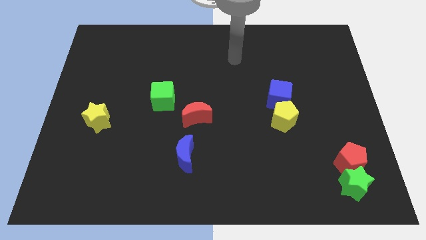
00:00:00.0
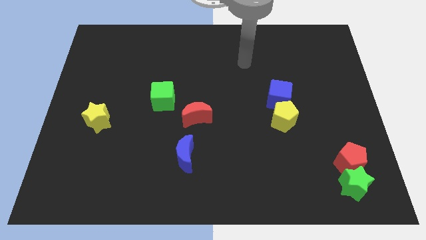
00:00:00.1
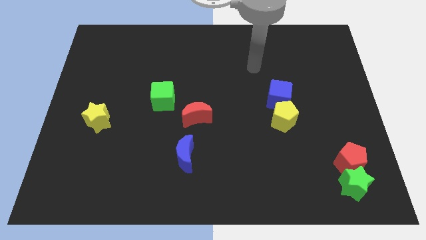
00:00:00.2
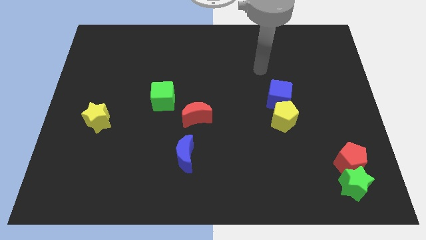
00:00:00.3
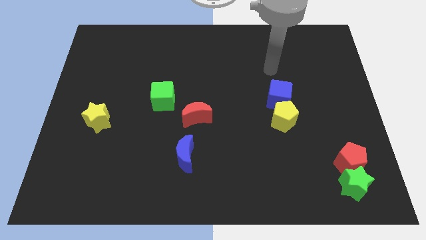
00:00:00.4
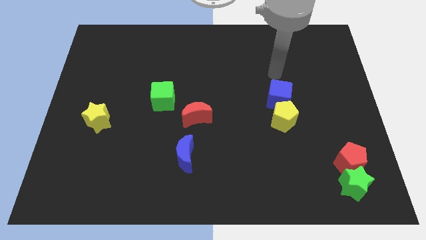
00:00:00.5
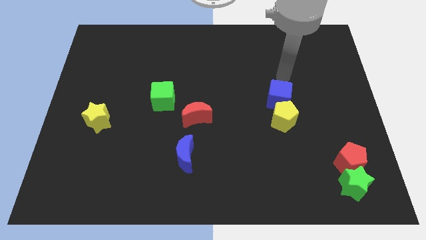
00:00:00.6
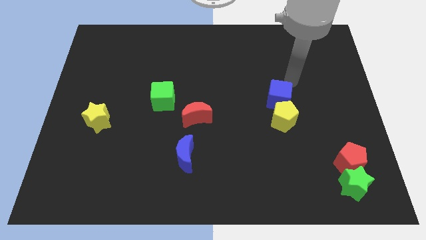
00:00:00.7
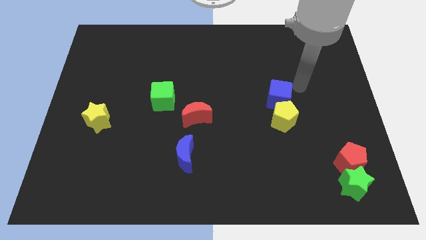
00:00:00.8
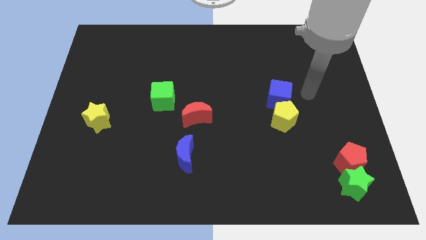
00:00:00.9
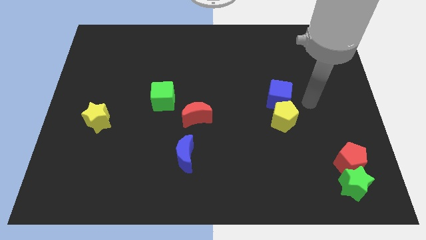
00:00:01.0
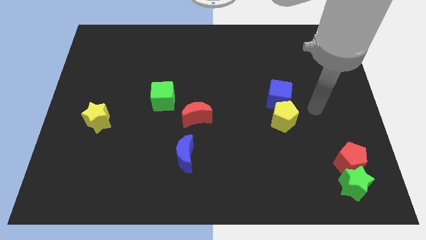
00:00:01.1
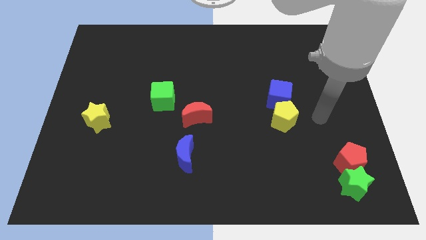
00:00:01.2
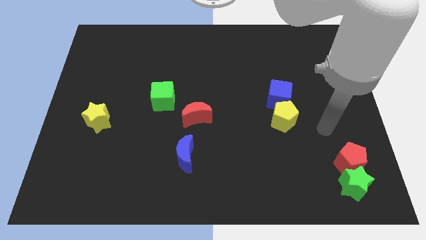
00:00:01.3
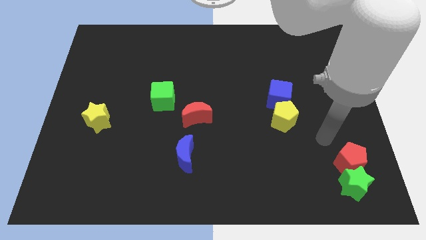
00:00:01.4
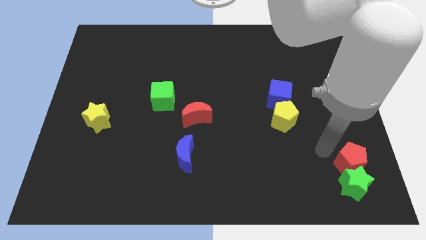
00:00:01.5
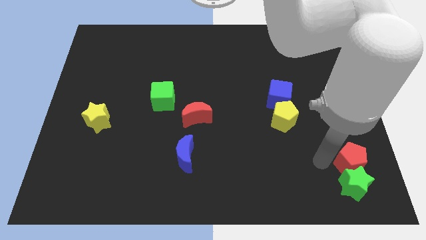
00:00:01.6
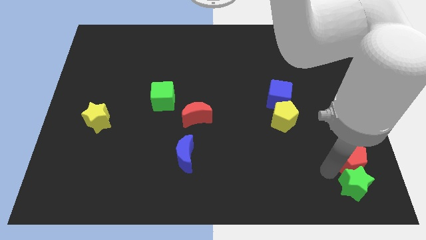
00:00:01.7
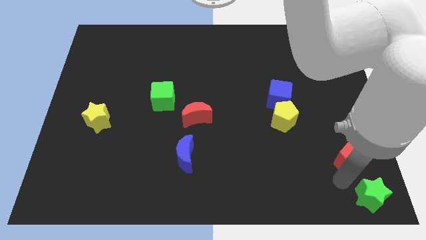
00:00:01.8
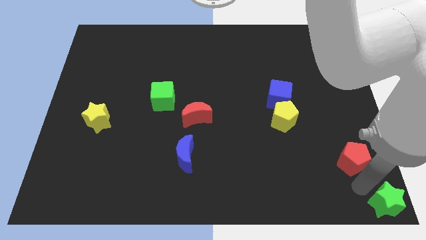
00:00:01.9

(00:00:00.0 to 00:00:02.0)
move the red pentagon away from the green star

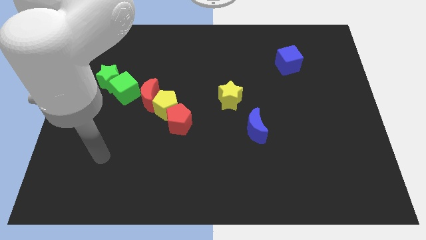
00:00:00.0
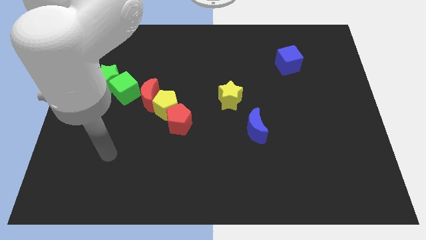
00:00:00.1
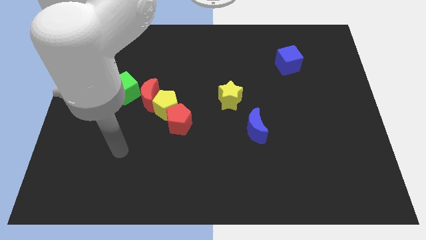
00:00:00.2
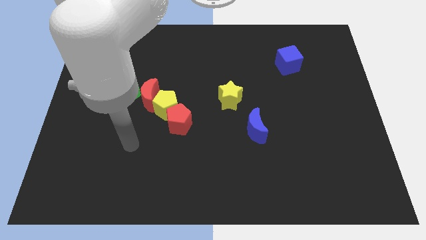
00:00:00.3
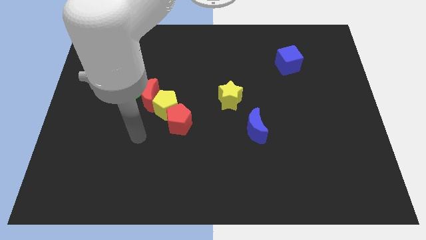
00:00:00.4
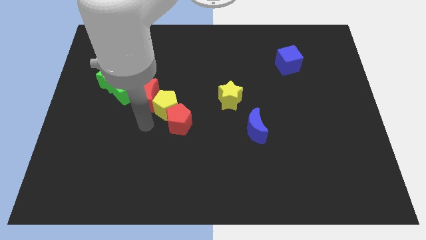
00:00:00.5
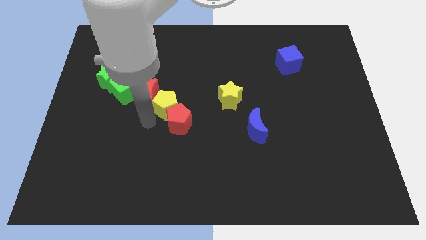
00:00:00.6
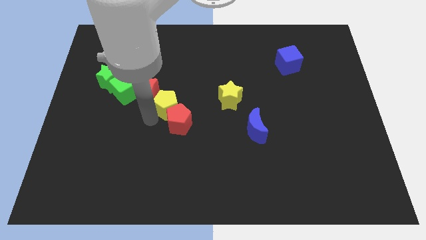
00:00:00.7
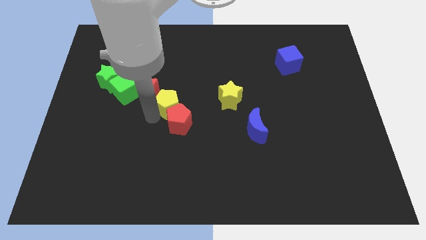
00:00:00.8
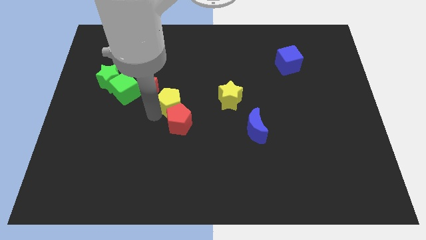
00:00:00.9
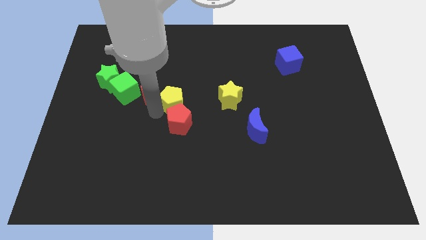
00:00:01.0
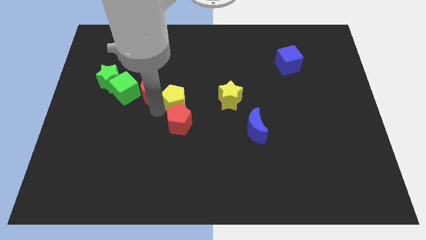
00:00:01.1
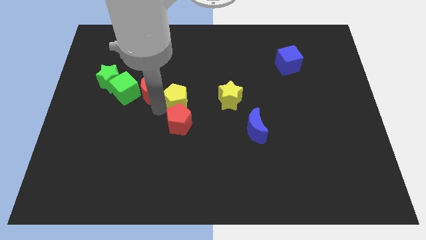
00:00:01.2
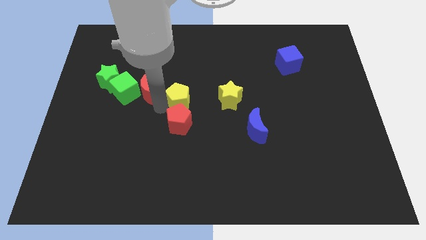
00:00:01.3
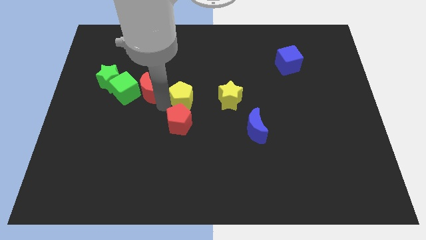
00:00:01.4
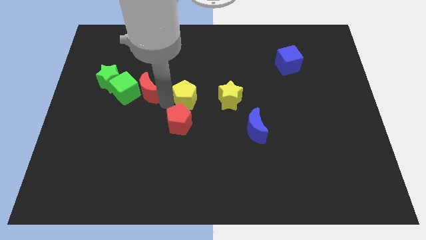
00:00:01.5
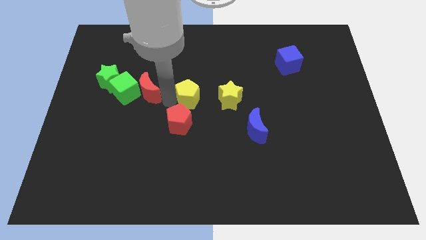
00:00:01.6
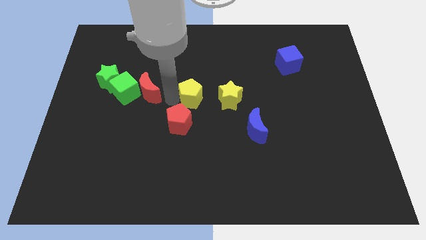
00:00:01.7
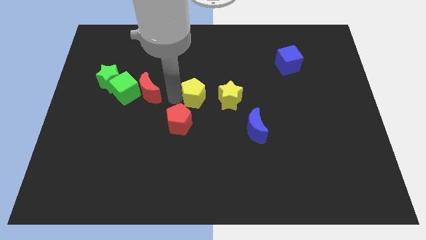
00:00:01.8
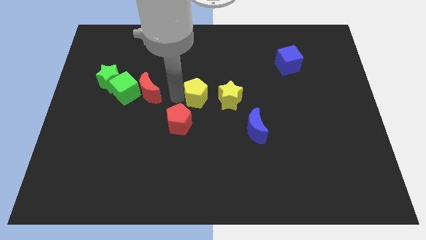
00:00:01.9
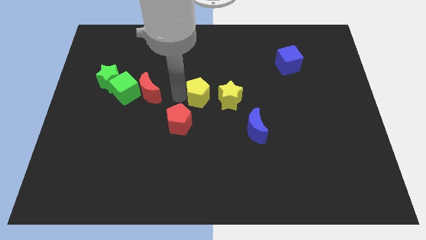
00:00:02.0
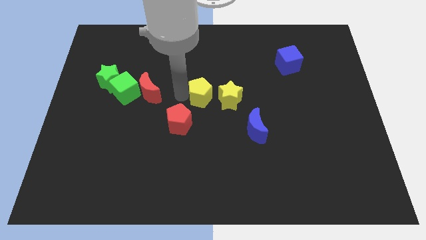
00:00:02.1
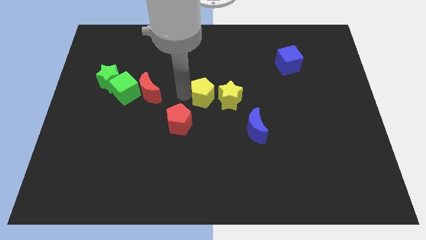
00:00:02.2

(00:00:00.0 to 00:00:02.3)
move the yellow pentagon away from the red moon and red pentagon

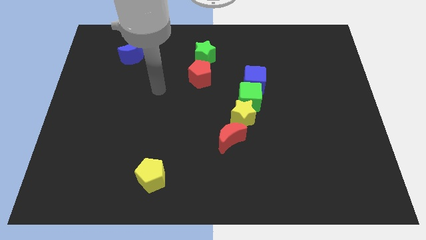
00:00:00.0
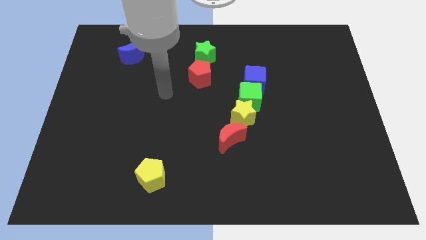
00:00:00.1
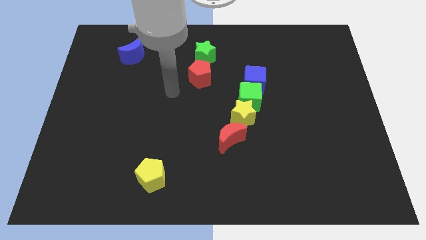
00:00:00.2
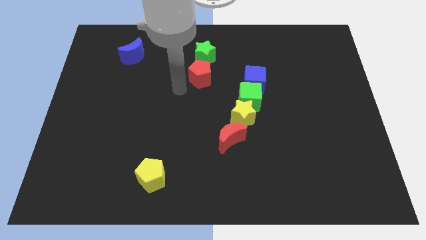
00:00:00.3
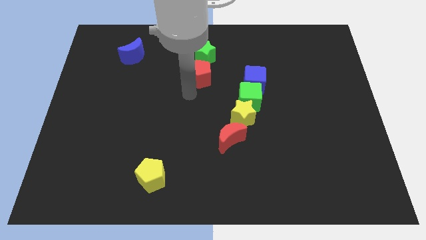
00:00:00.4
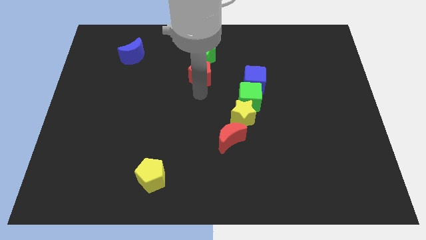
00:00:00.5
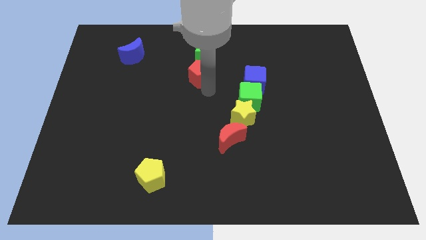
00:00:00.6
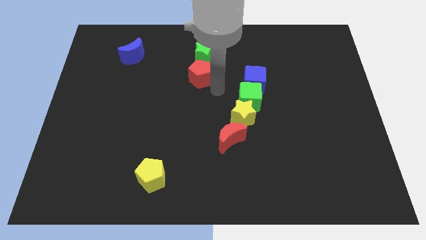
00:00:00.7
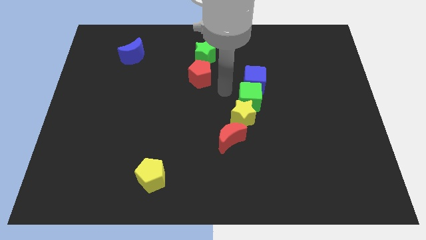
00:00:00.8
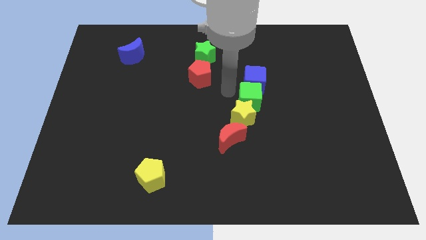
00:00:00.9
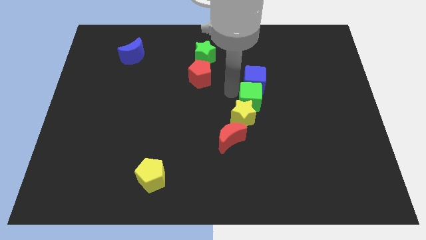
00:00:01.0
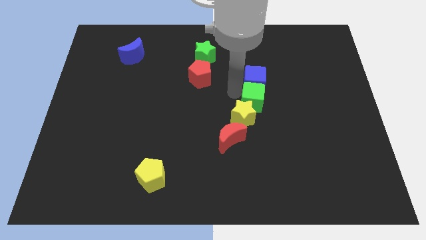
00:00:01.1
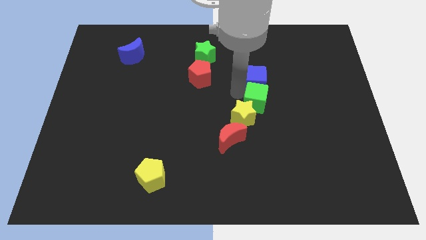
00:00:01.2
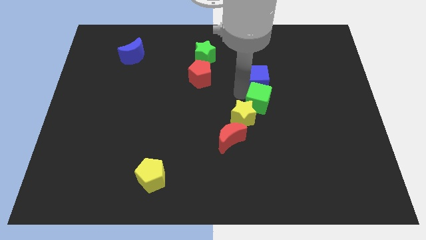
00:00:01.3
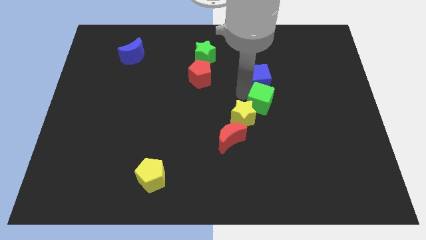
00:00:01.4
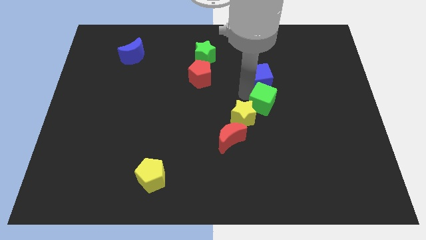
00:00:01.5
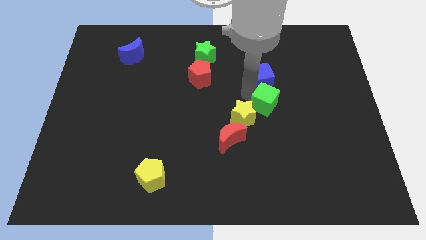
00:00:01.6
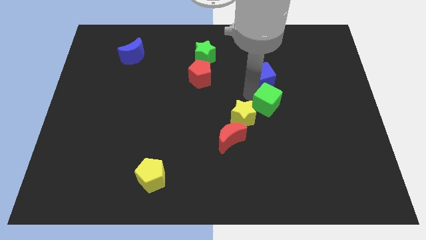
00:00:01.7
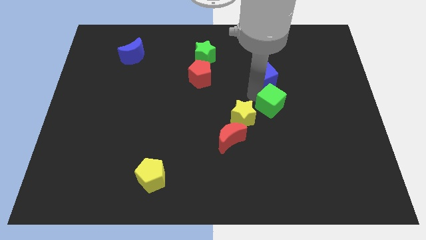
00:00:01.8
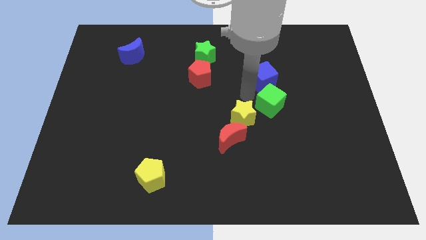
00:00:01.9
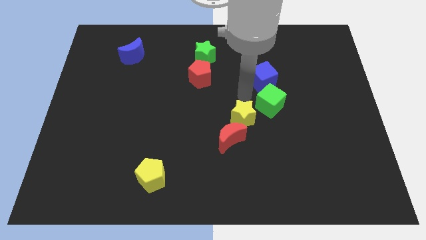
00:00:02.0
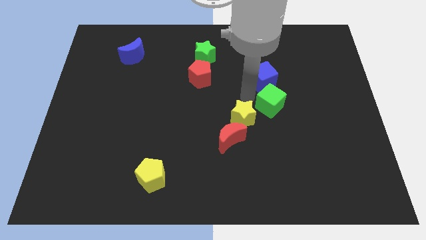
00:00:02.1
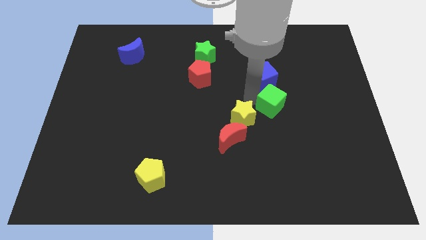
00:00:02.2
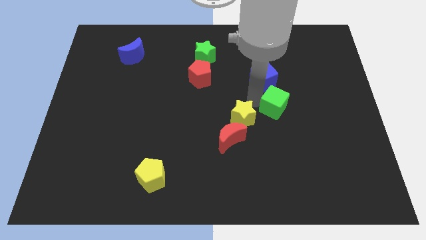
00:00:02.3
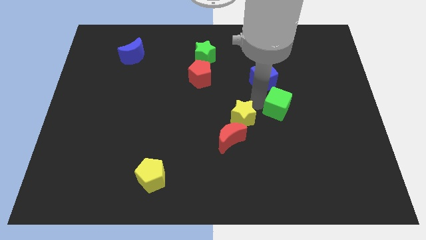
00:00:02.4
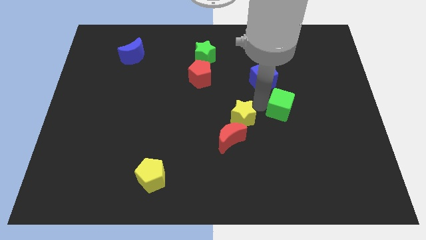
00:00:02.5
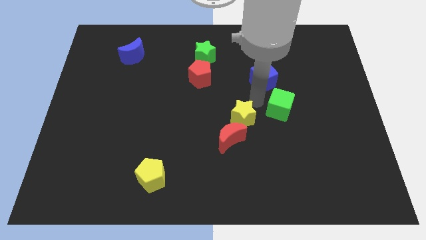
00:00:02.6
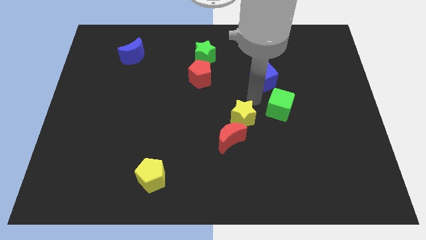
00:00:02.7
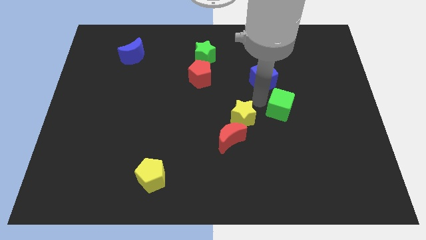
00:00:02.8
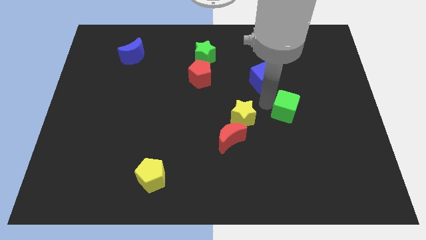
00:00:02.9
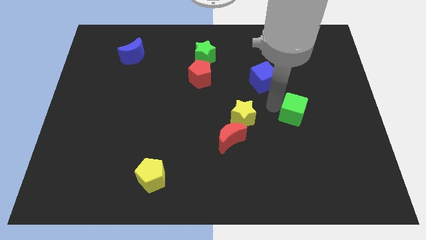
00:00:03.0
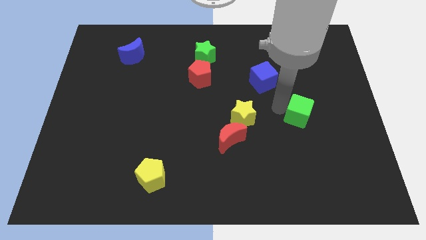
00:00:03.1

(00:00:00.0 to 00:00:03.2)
separate the green cube from the yellow star and blue cube

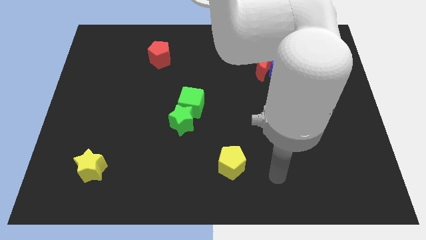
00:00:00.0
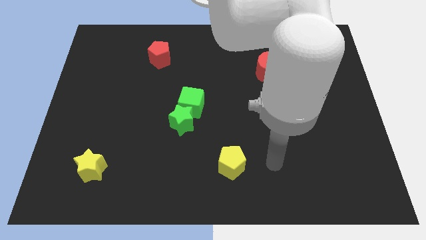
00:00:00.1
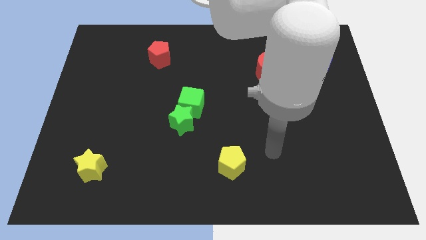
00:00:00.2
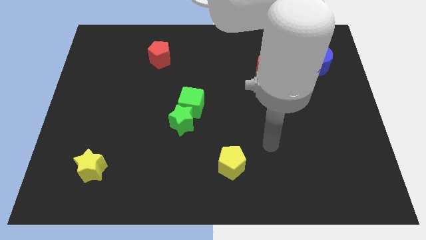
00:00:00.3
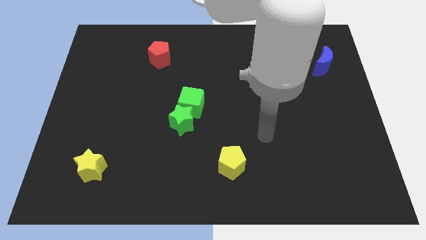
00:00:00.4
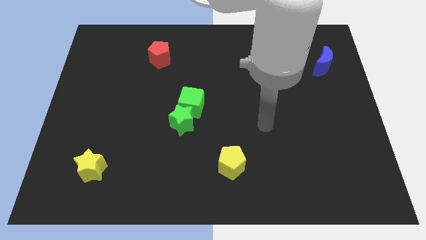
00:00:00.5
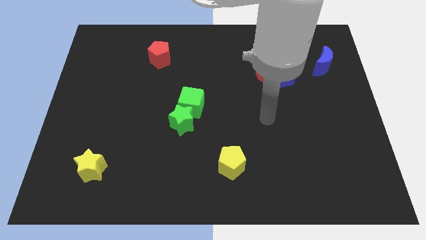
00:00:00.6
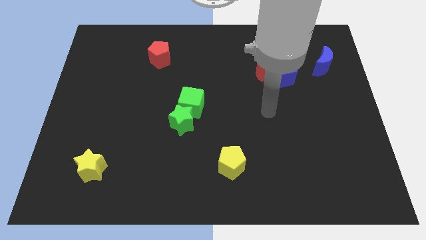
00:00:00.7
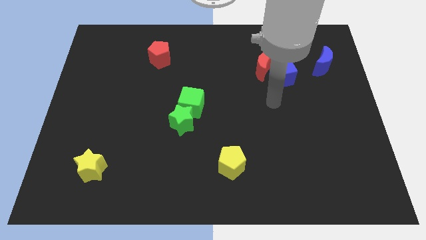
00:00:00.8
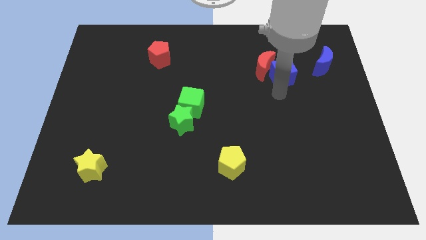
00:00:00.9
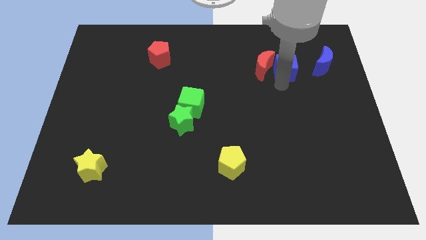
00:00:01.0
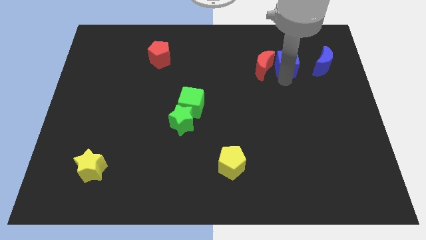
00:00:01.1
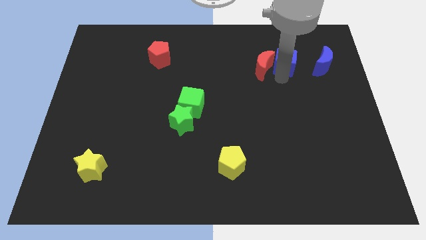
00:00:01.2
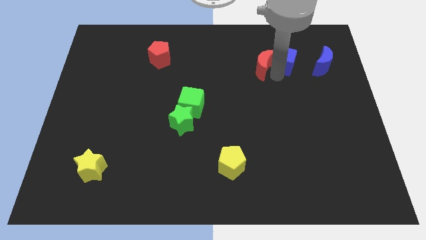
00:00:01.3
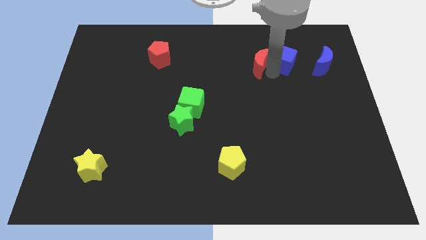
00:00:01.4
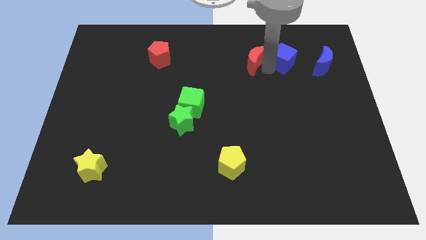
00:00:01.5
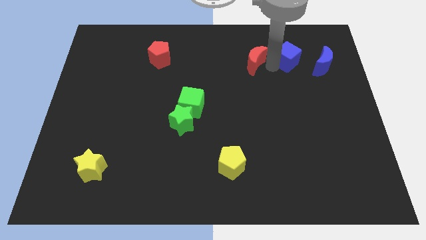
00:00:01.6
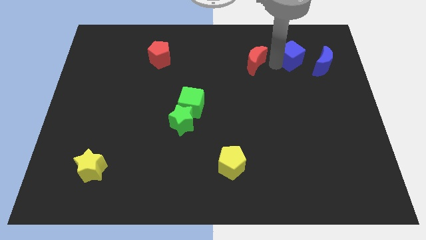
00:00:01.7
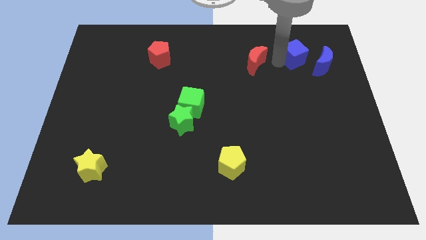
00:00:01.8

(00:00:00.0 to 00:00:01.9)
move the red moon away from the blue cube
